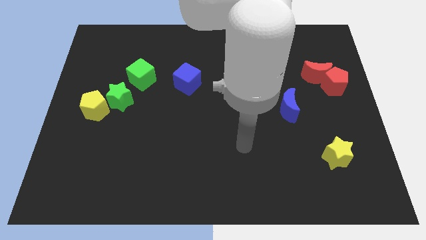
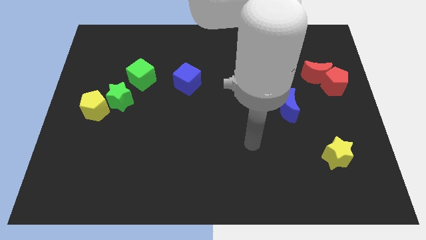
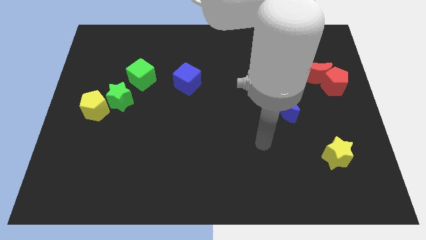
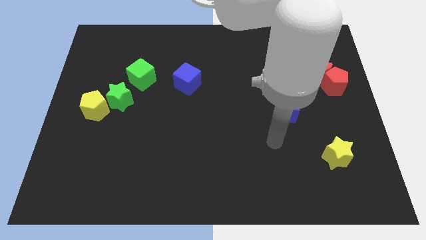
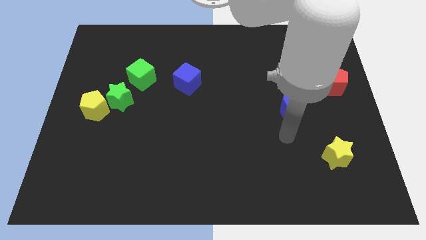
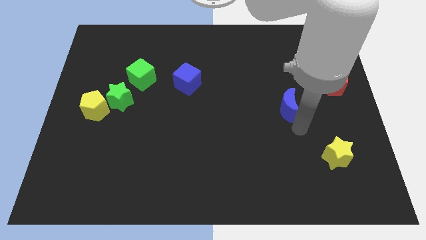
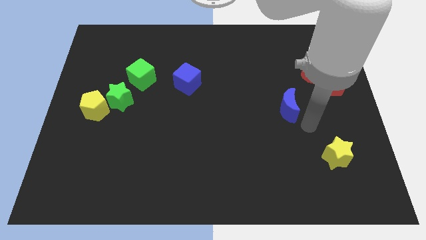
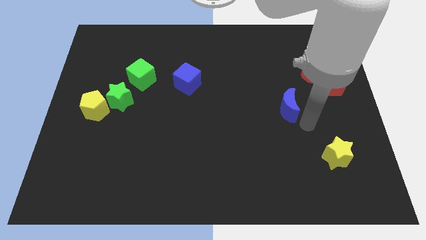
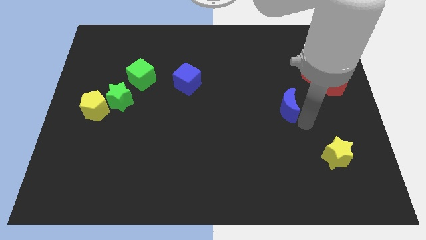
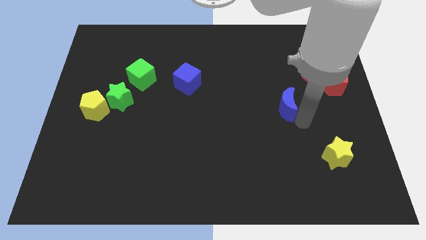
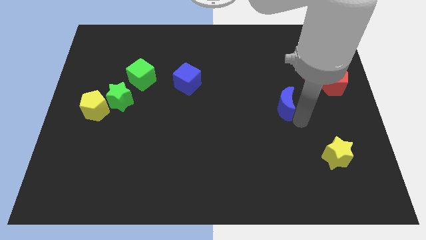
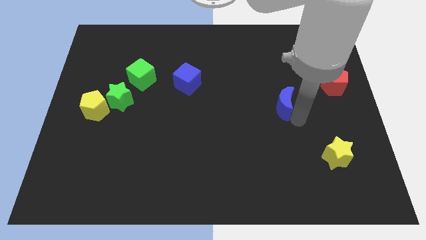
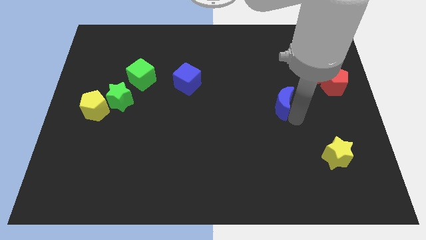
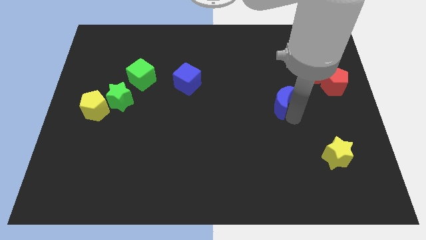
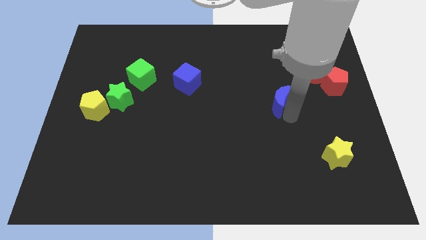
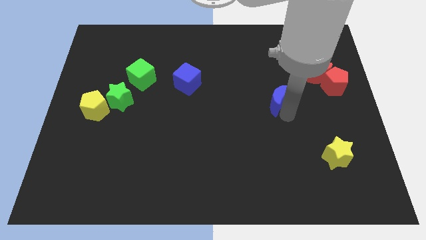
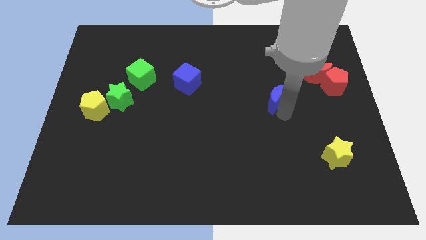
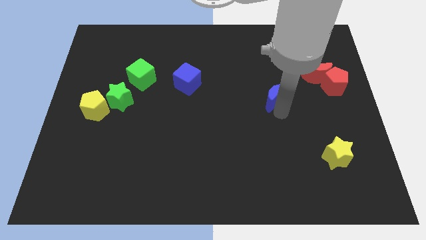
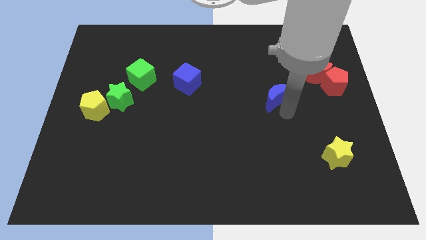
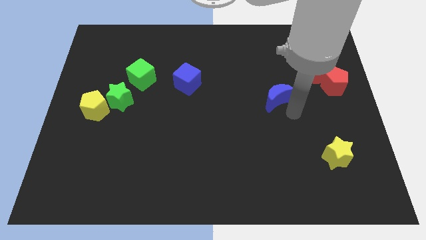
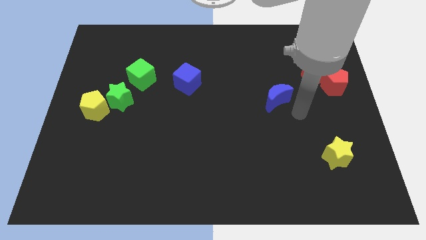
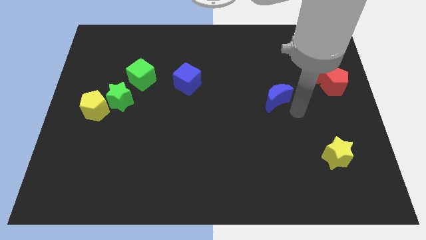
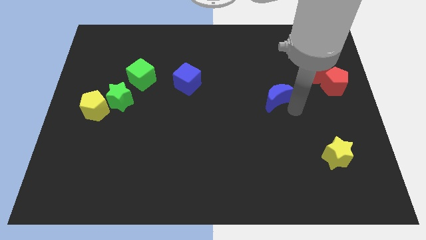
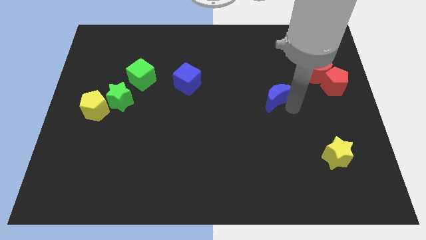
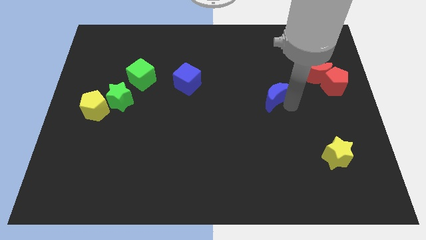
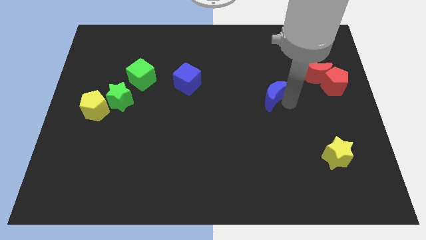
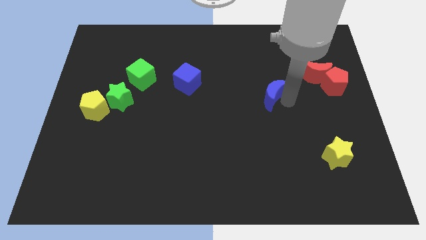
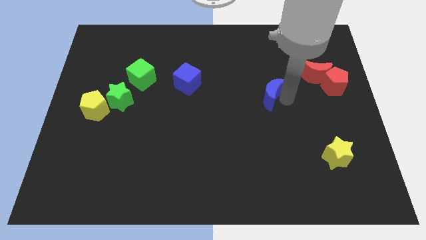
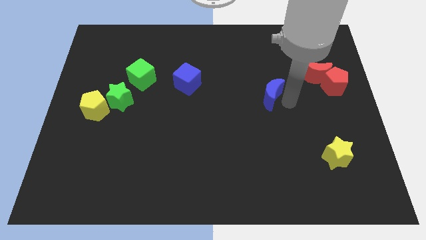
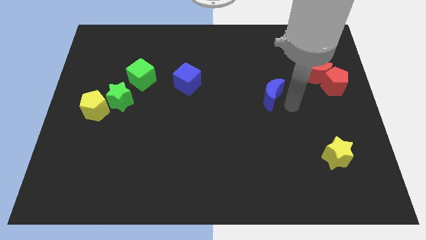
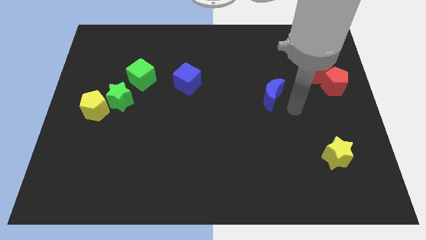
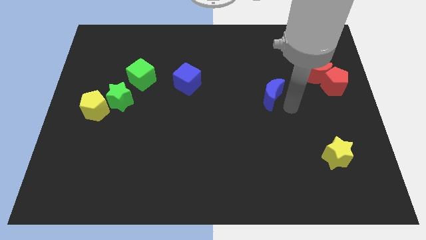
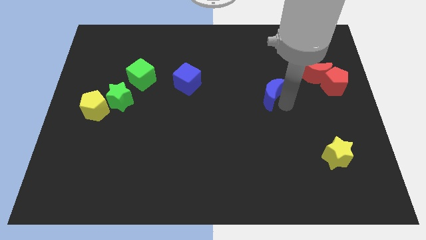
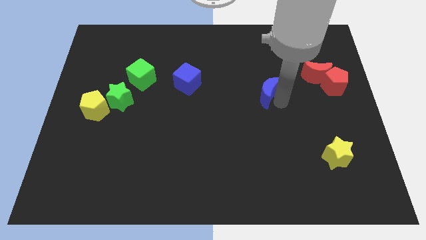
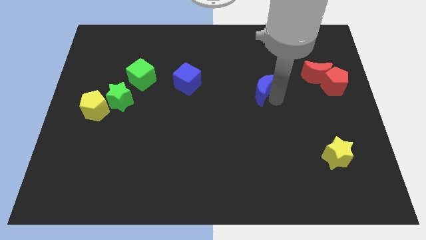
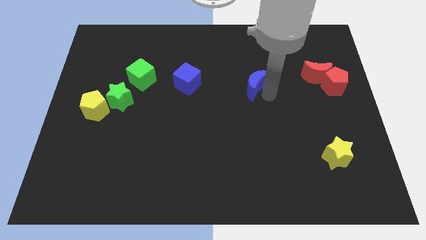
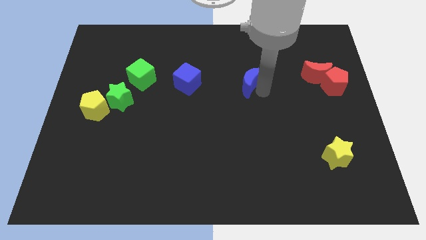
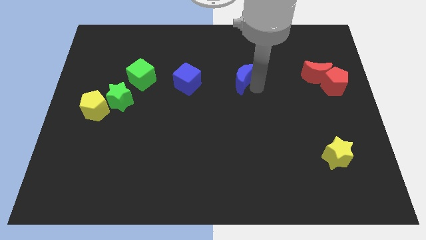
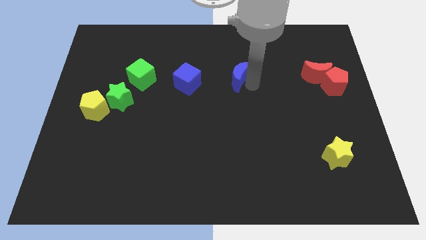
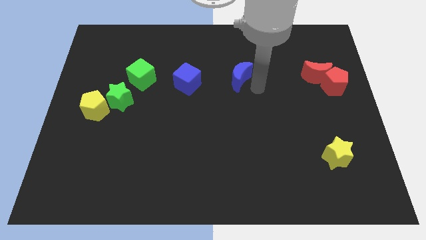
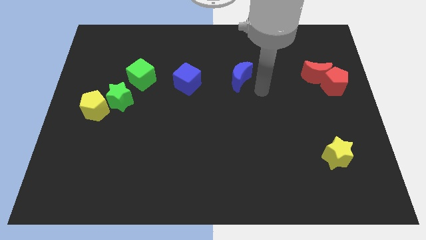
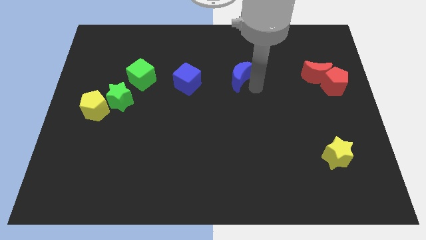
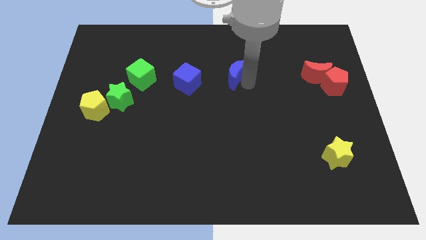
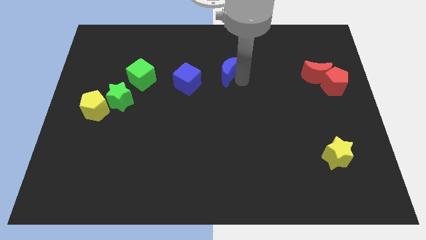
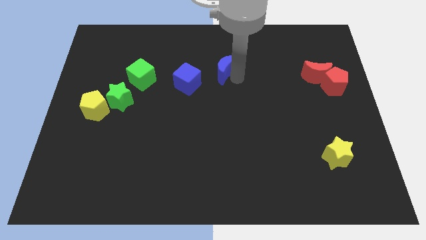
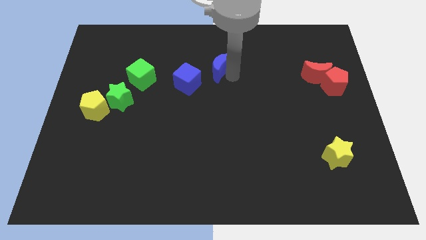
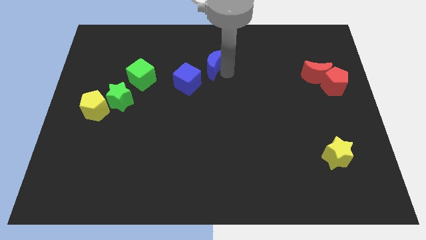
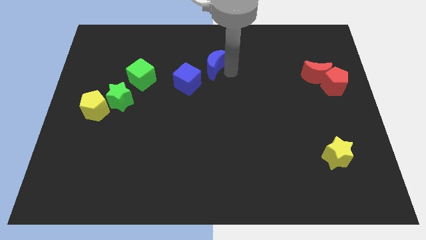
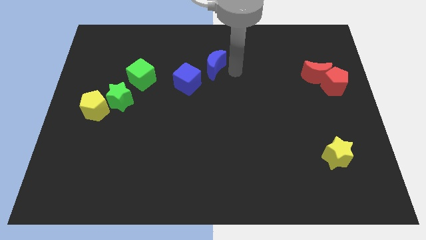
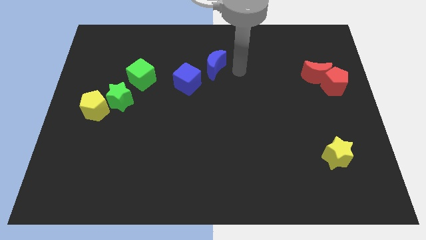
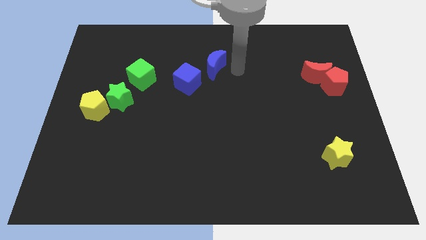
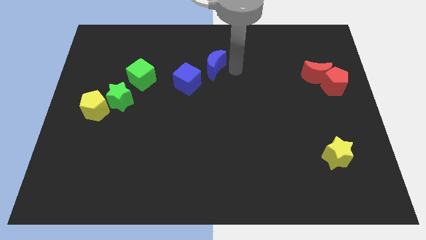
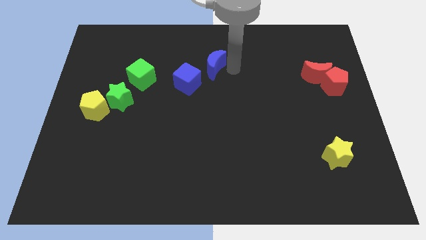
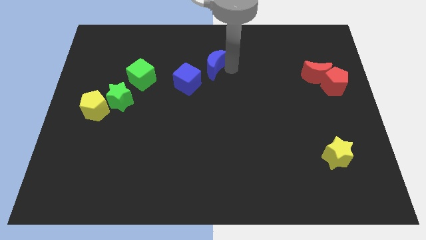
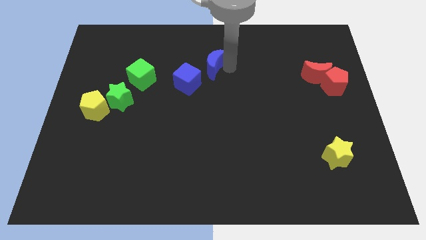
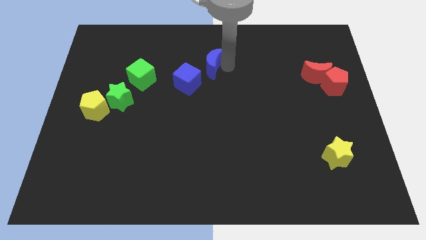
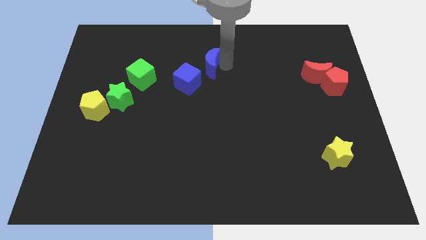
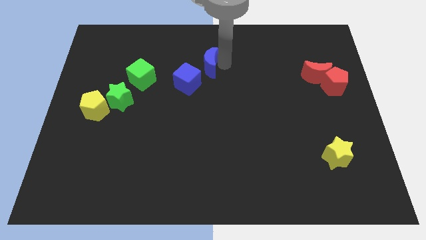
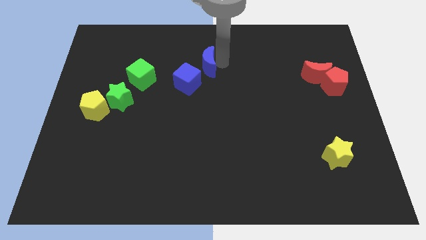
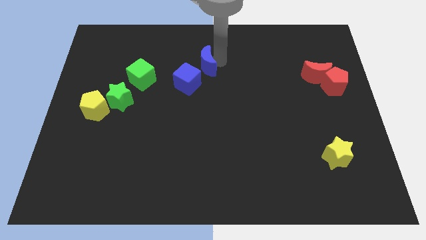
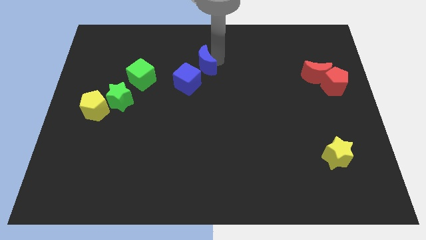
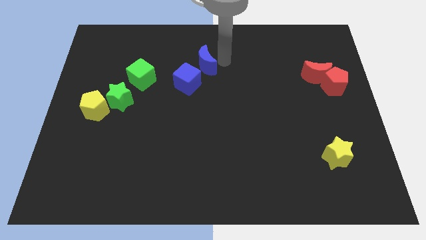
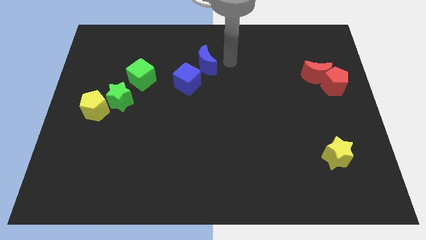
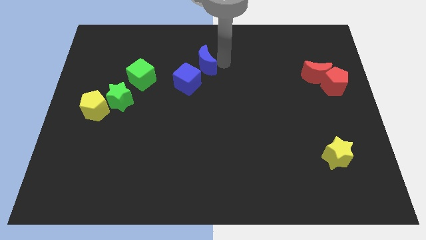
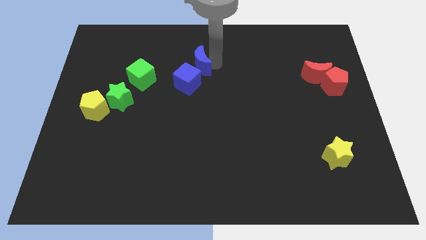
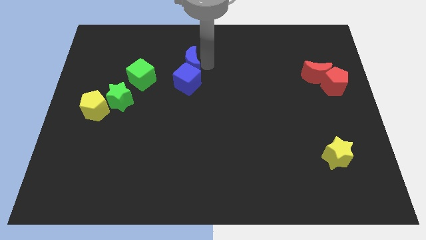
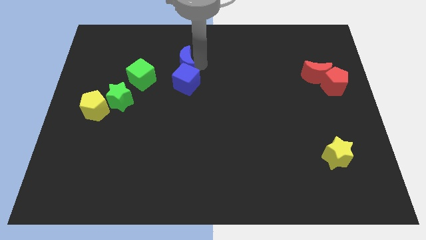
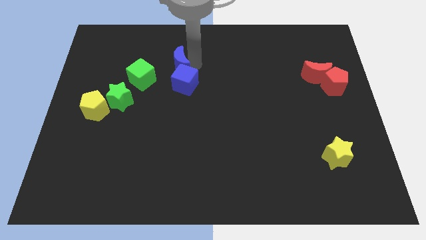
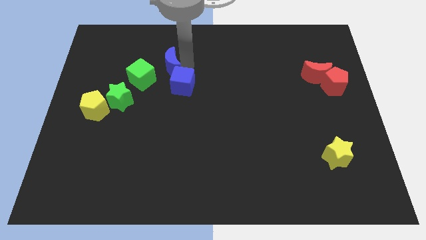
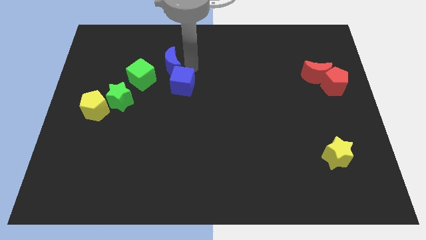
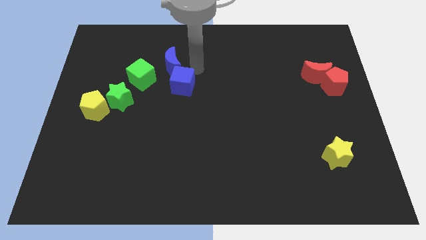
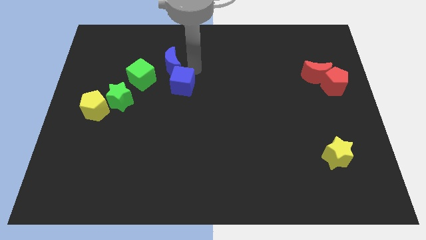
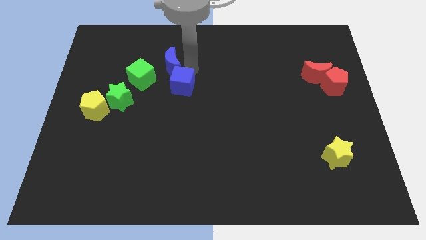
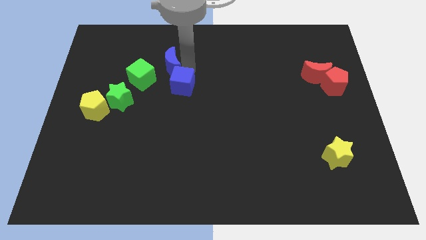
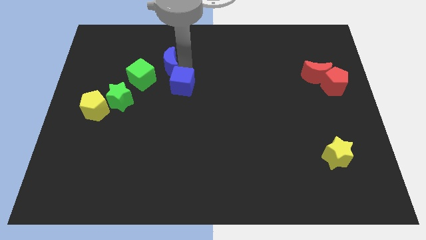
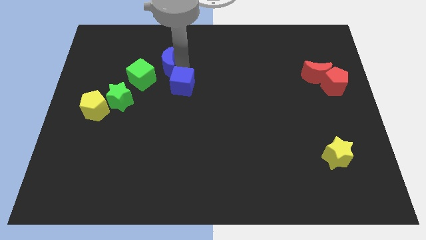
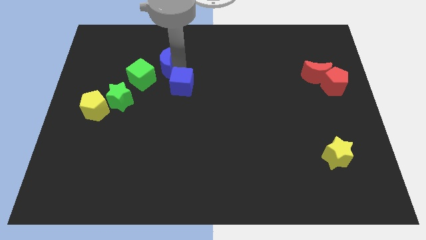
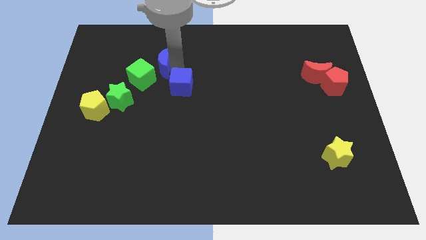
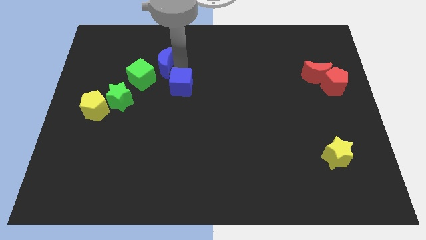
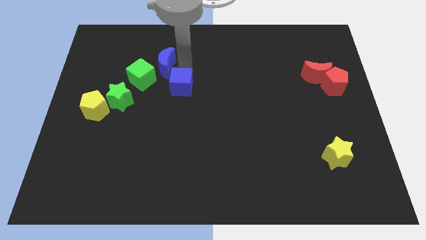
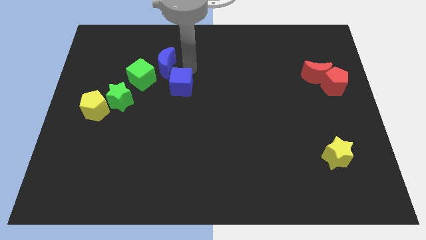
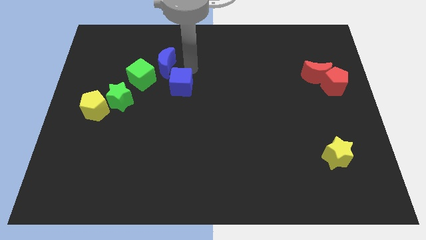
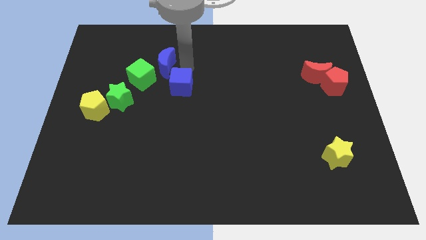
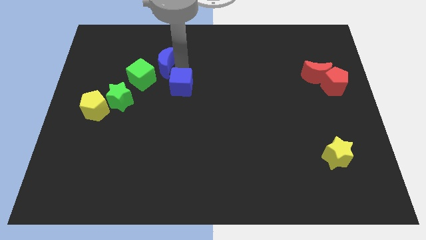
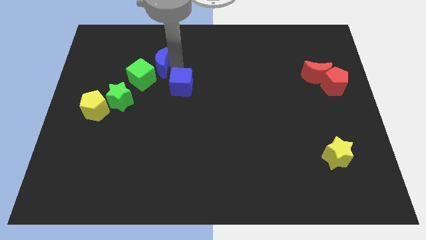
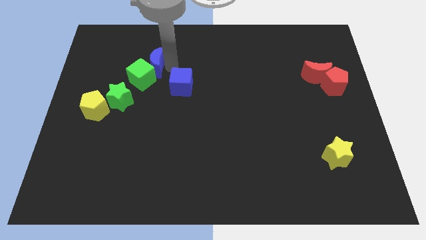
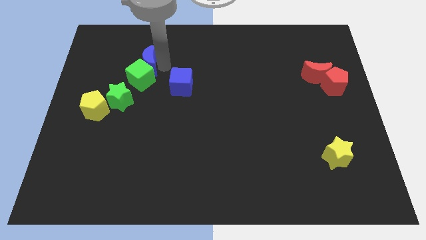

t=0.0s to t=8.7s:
put the blue moon diagonally up and to the left of the green cube

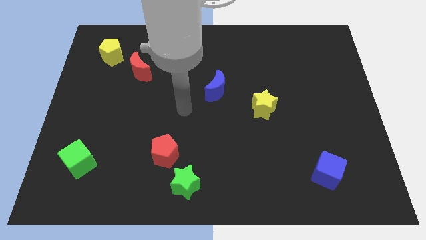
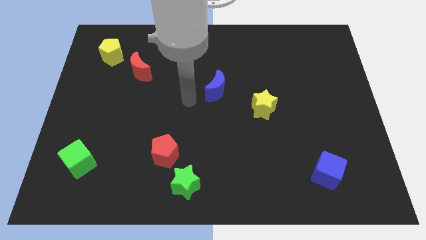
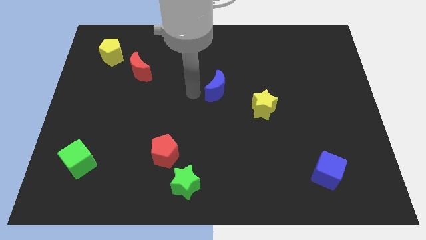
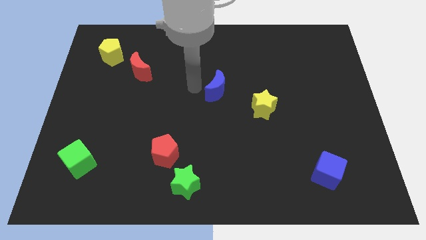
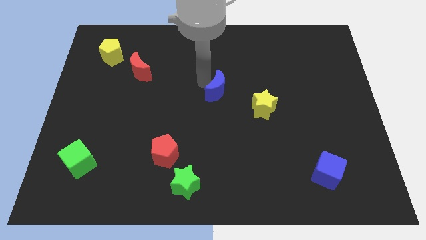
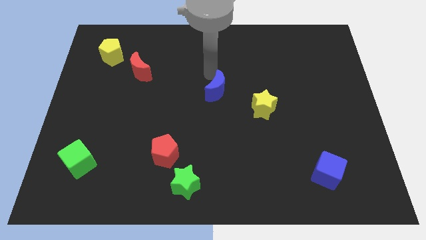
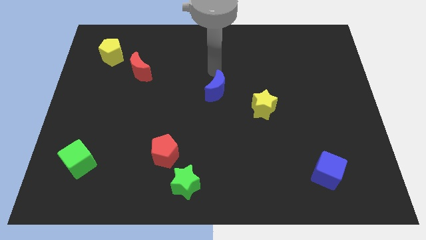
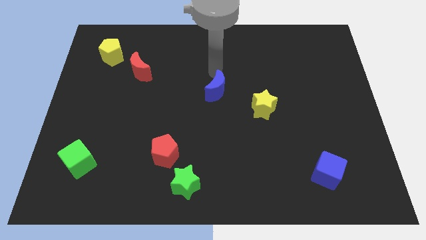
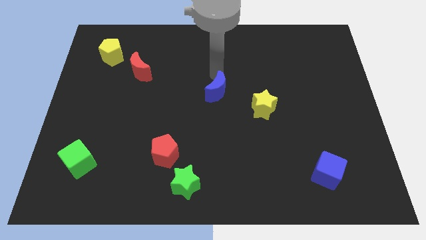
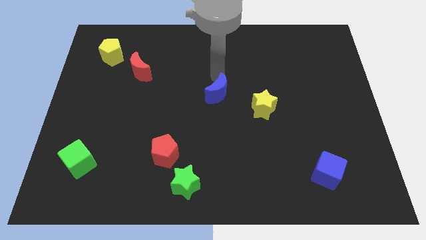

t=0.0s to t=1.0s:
slide the blue moon left of the yellow star
